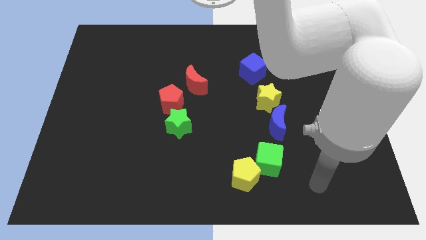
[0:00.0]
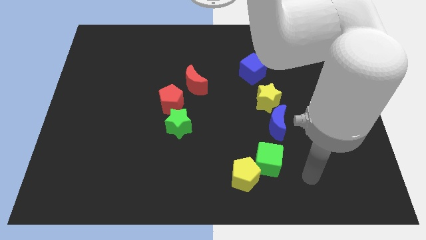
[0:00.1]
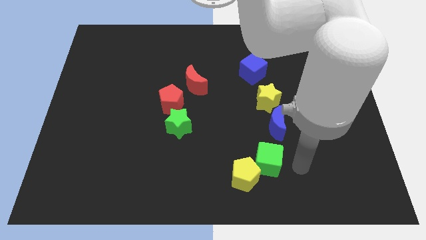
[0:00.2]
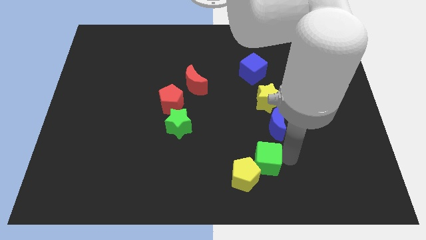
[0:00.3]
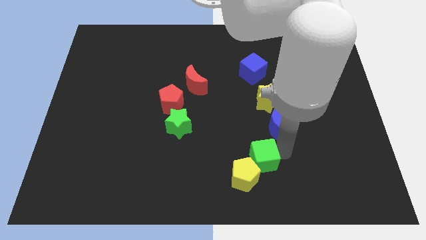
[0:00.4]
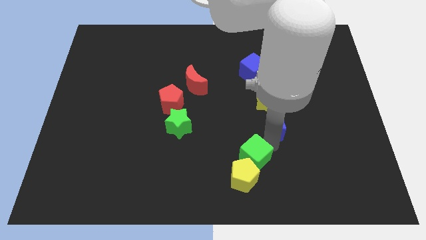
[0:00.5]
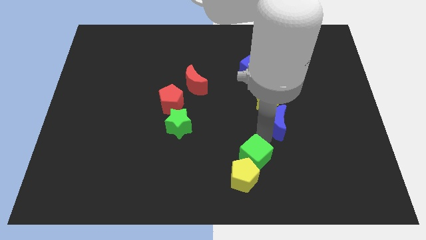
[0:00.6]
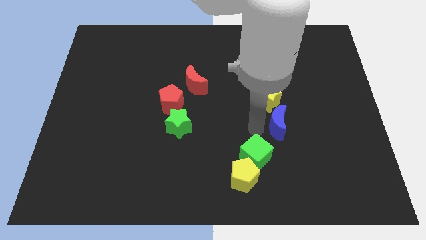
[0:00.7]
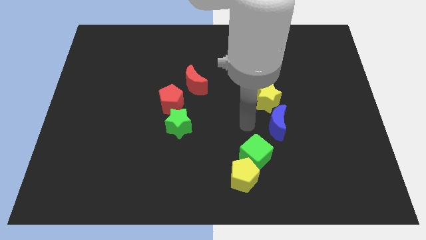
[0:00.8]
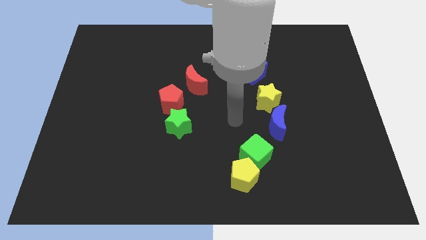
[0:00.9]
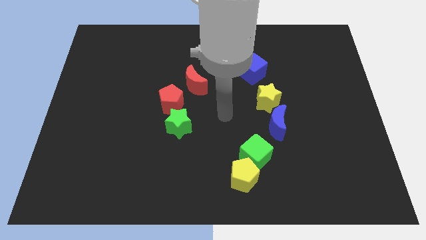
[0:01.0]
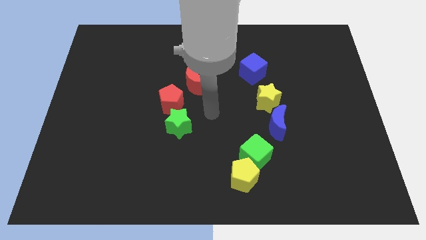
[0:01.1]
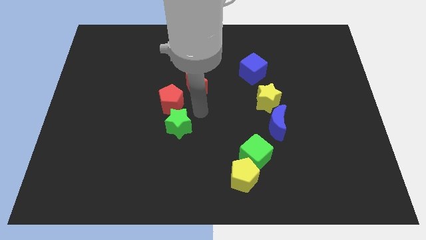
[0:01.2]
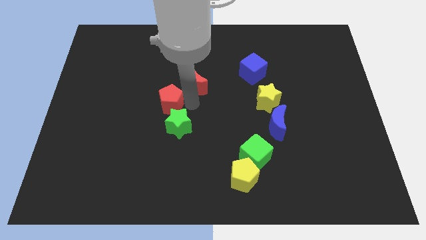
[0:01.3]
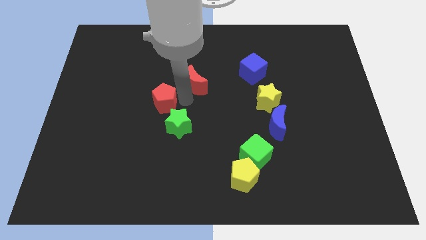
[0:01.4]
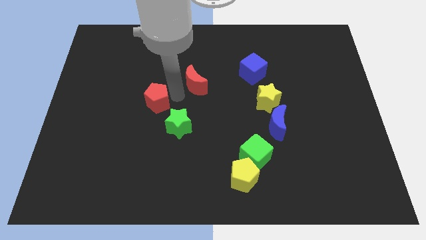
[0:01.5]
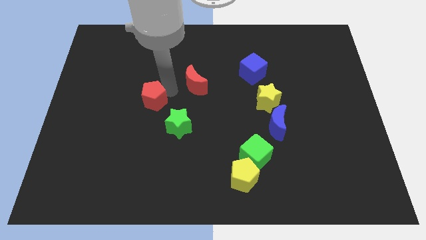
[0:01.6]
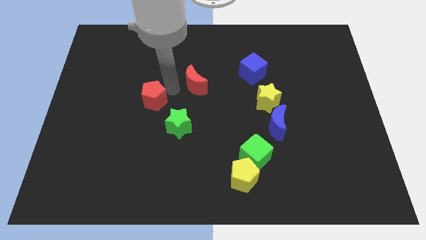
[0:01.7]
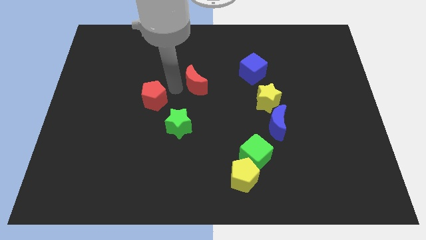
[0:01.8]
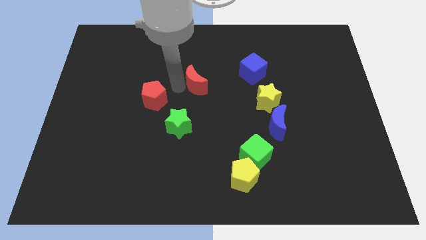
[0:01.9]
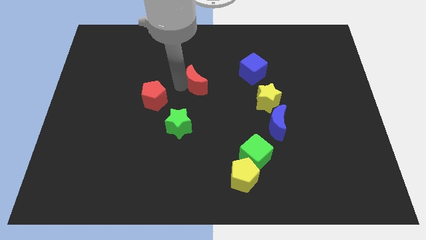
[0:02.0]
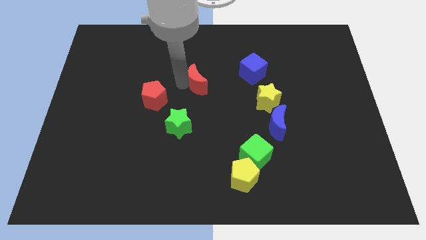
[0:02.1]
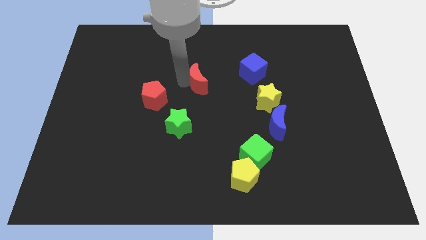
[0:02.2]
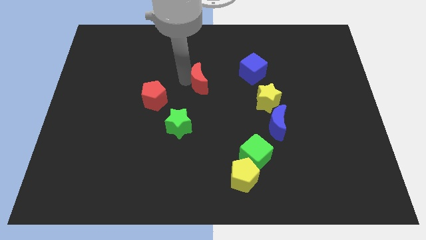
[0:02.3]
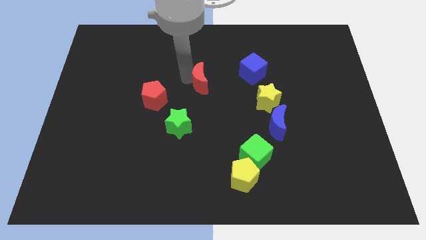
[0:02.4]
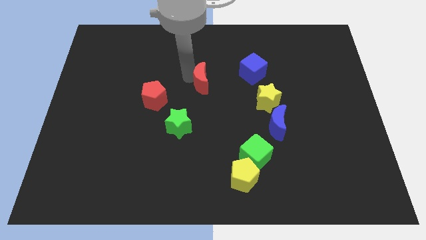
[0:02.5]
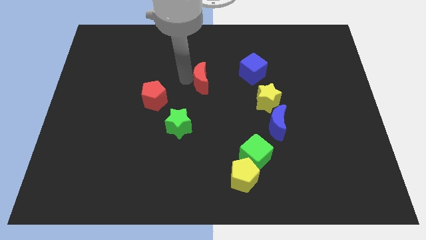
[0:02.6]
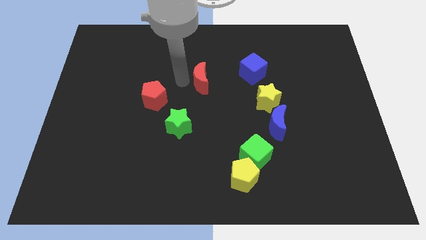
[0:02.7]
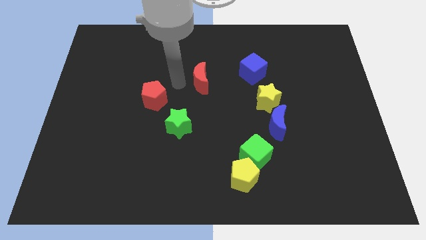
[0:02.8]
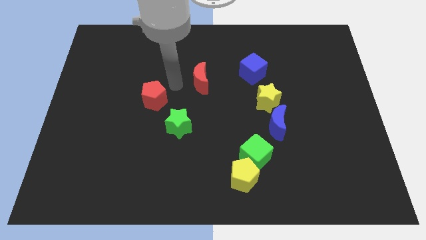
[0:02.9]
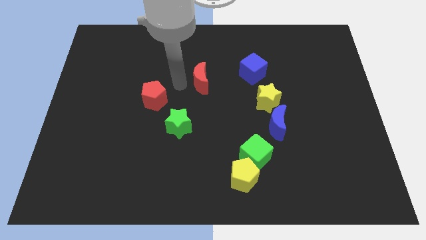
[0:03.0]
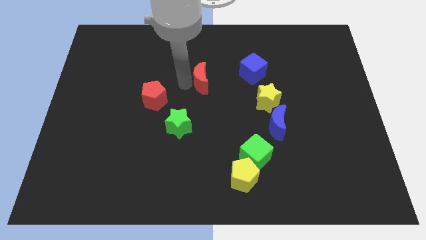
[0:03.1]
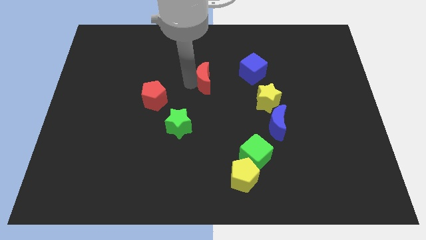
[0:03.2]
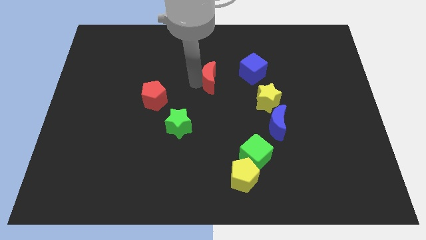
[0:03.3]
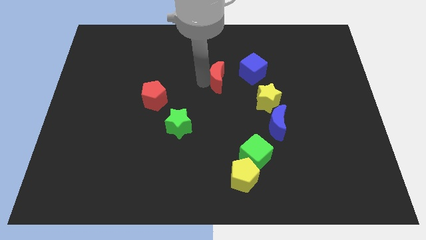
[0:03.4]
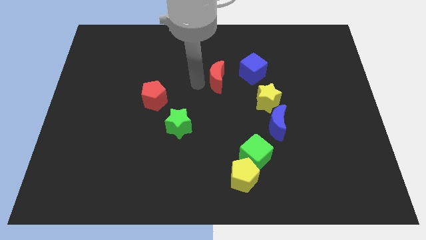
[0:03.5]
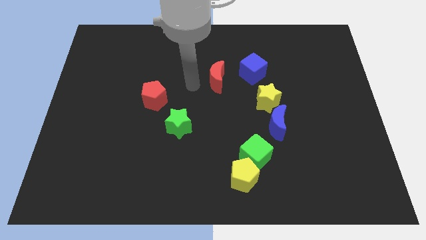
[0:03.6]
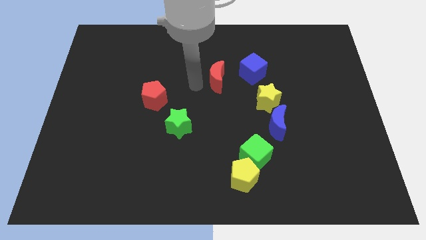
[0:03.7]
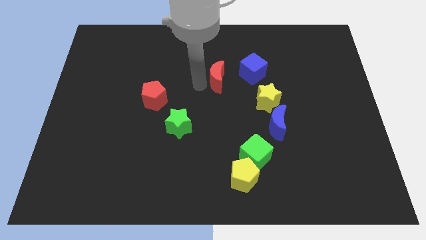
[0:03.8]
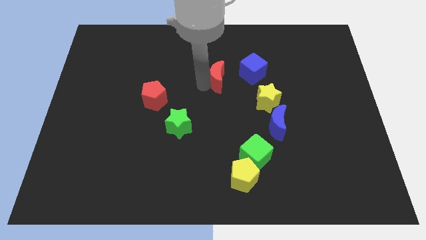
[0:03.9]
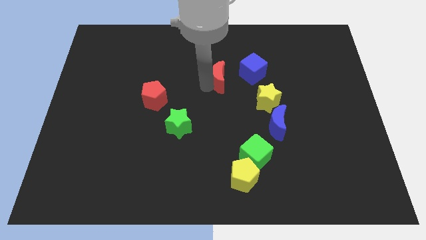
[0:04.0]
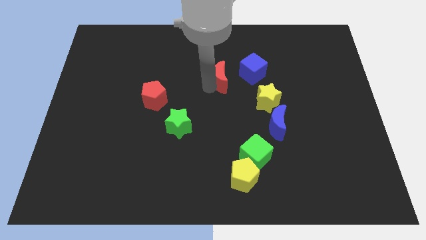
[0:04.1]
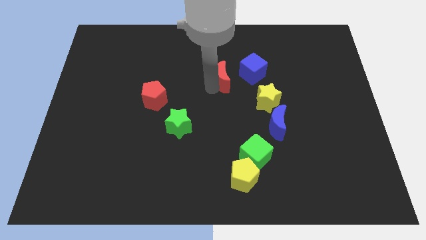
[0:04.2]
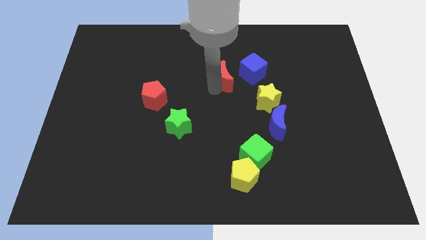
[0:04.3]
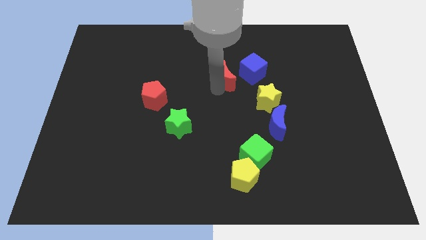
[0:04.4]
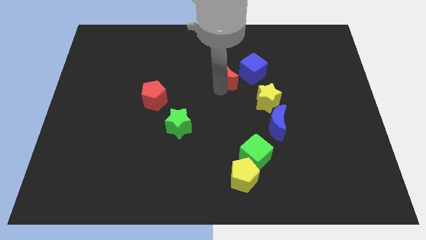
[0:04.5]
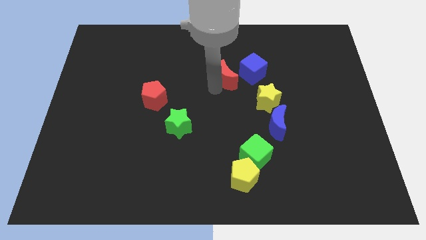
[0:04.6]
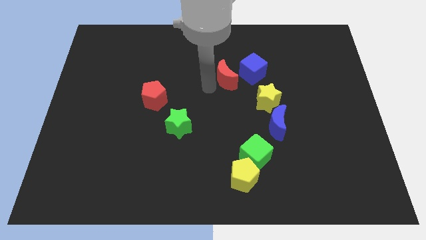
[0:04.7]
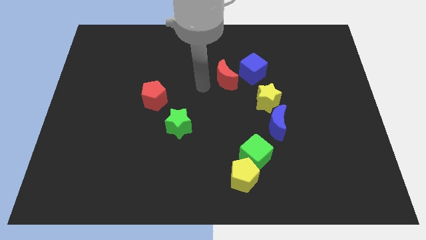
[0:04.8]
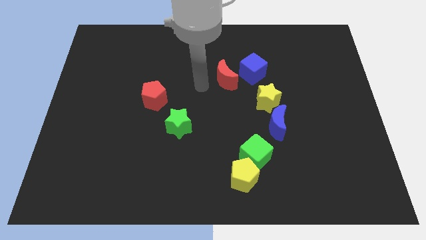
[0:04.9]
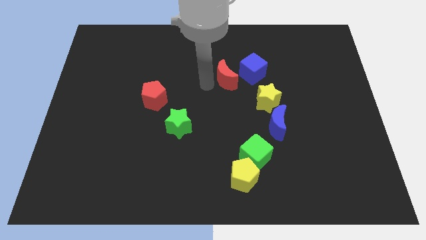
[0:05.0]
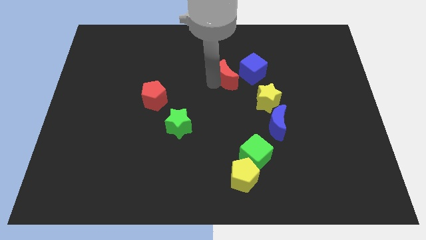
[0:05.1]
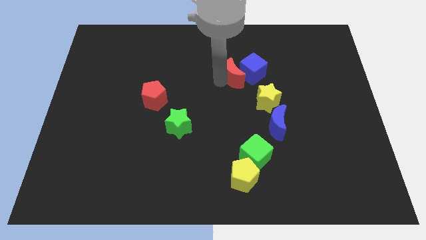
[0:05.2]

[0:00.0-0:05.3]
slide the red moon next to the blue cube

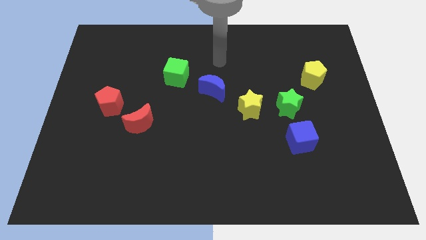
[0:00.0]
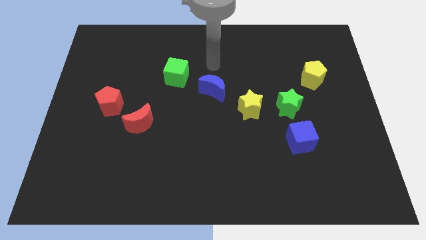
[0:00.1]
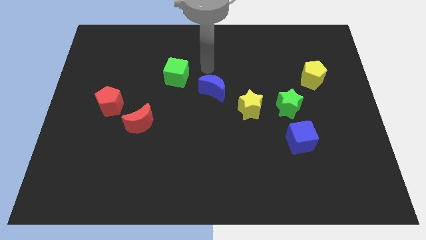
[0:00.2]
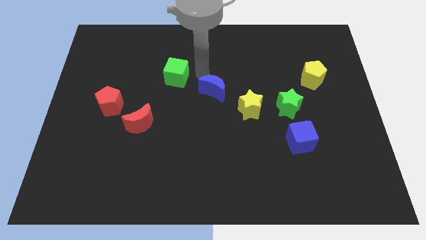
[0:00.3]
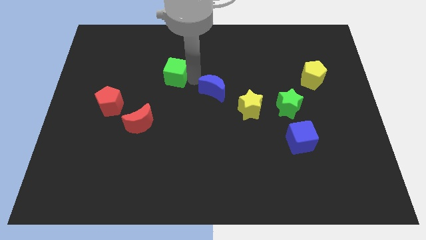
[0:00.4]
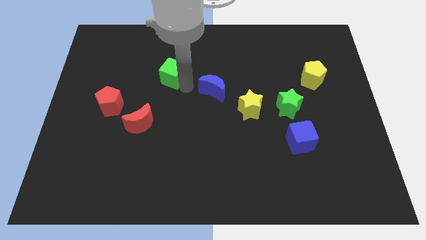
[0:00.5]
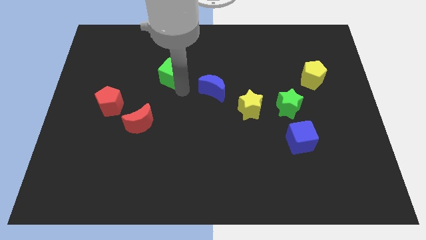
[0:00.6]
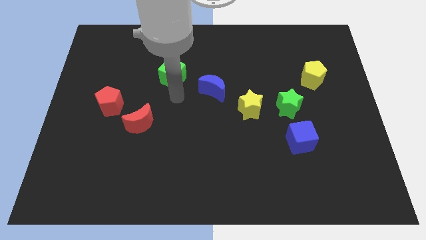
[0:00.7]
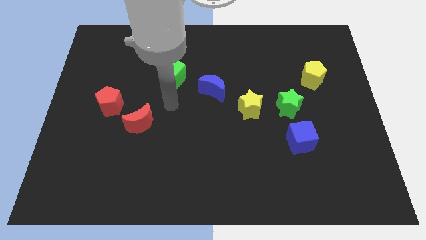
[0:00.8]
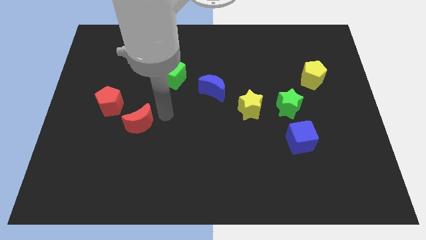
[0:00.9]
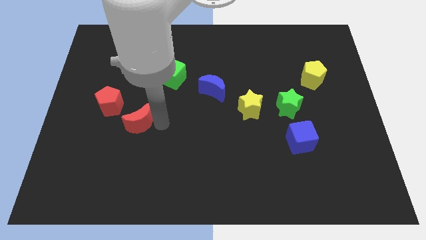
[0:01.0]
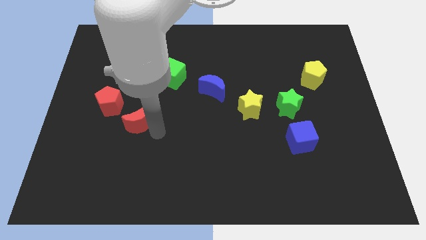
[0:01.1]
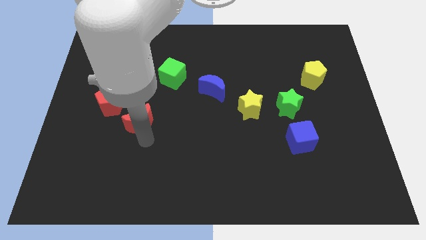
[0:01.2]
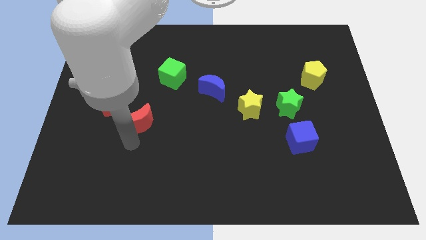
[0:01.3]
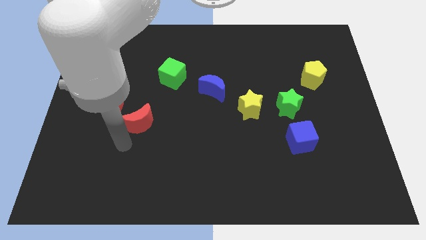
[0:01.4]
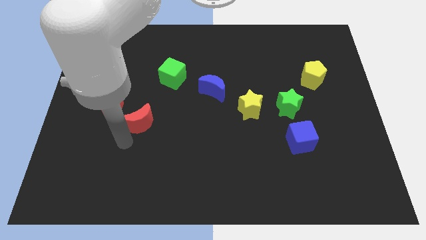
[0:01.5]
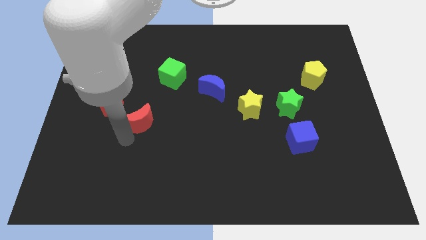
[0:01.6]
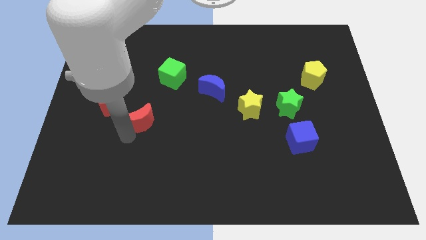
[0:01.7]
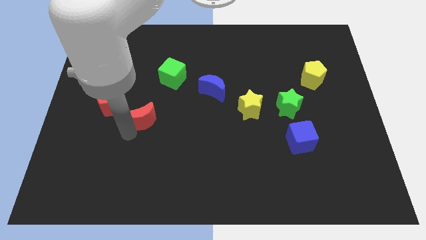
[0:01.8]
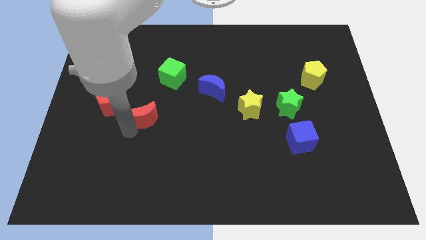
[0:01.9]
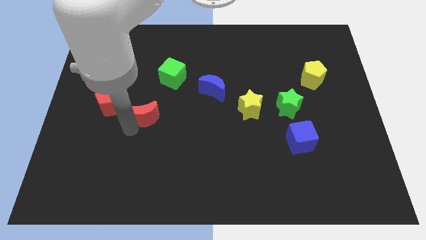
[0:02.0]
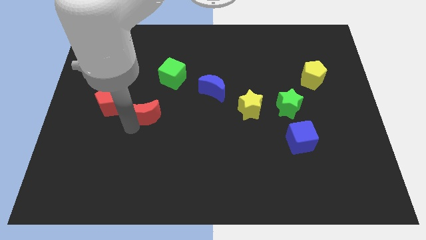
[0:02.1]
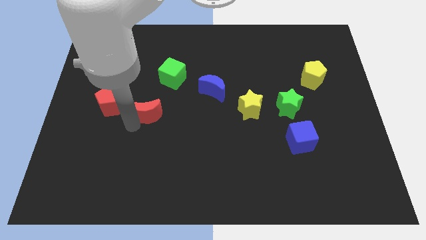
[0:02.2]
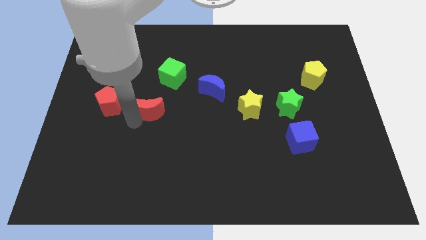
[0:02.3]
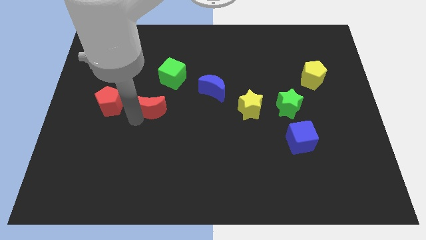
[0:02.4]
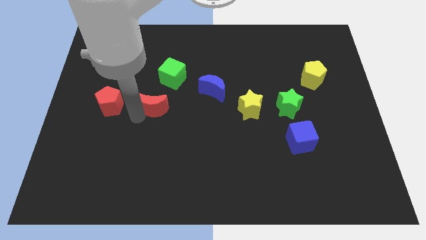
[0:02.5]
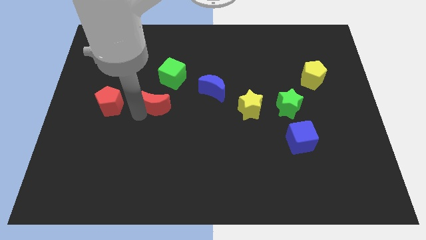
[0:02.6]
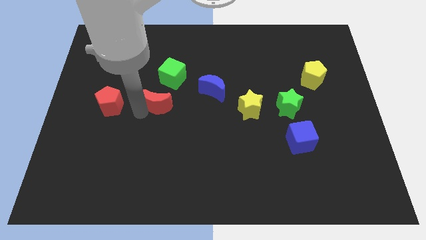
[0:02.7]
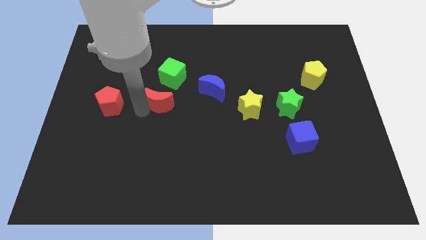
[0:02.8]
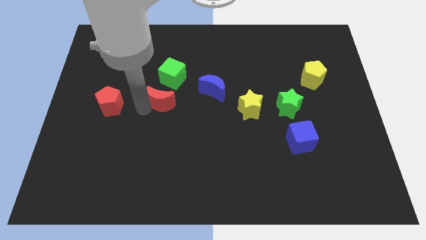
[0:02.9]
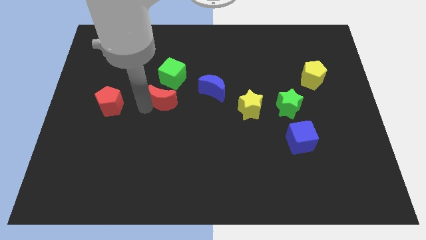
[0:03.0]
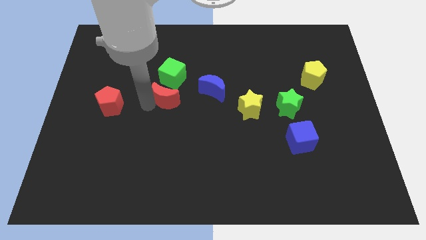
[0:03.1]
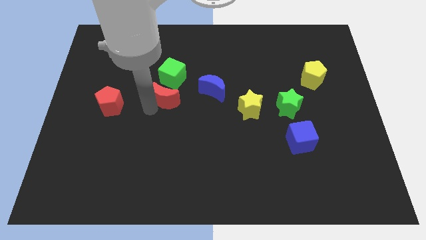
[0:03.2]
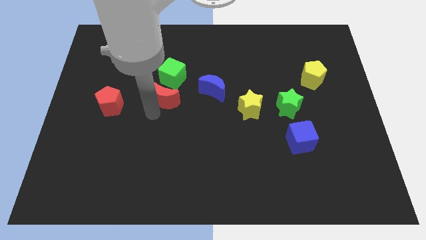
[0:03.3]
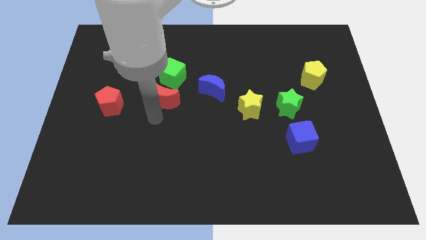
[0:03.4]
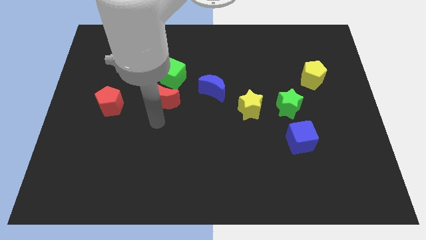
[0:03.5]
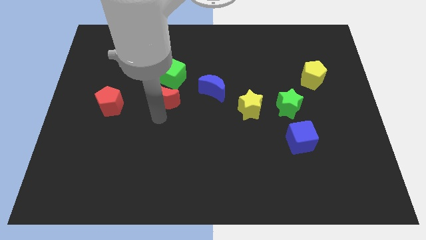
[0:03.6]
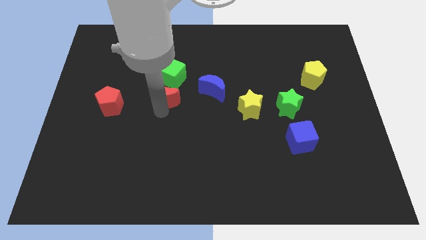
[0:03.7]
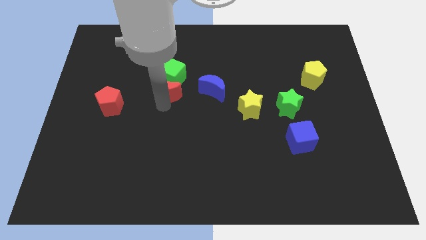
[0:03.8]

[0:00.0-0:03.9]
push the red moon next to the green cube
